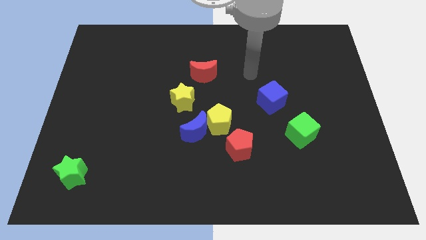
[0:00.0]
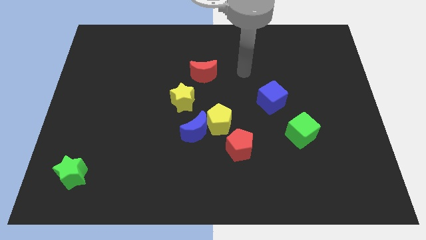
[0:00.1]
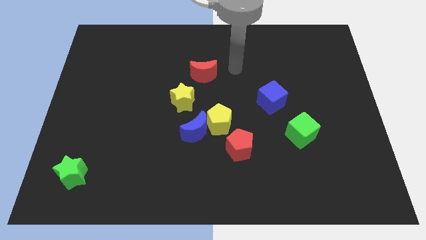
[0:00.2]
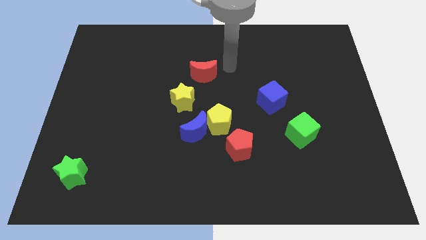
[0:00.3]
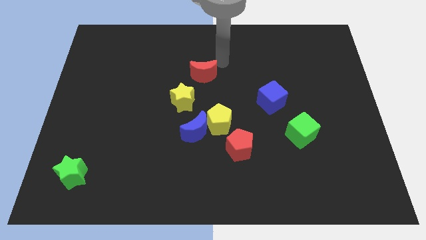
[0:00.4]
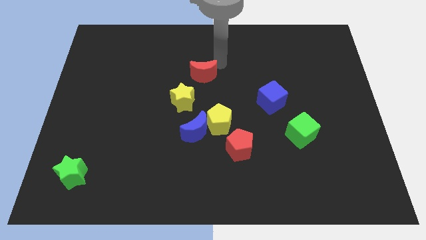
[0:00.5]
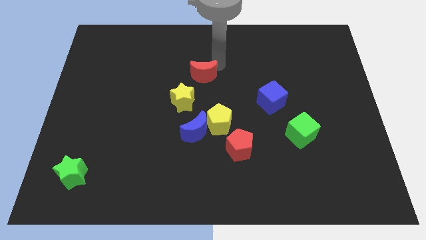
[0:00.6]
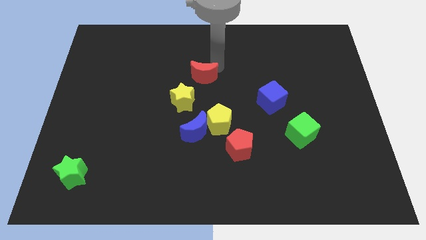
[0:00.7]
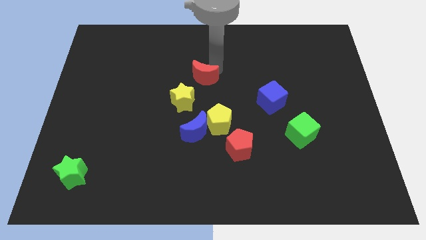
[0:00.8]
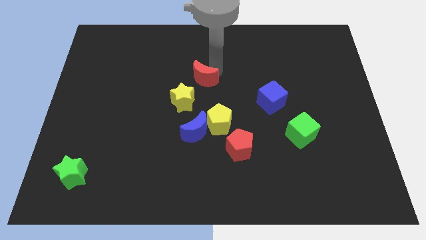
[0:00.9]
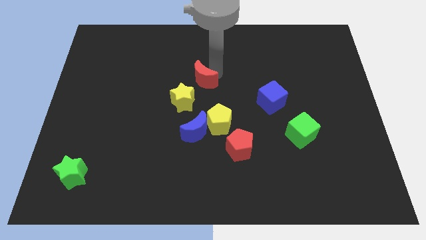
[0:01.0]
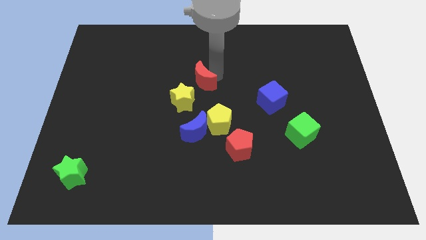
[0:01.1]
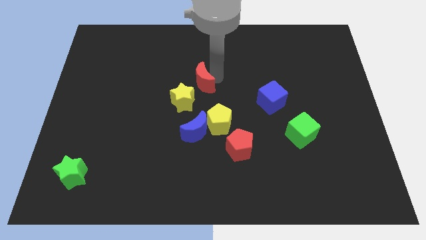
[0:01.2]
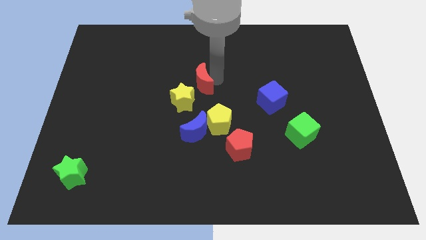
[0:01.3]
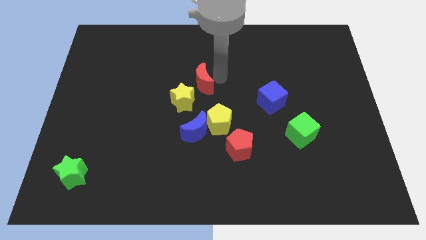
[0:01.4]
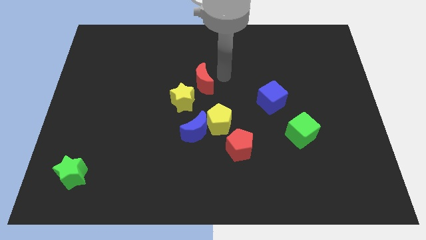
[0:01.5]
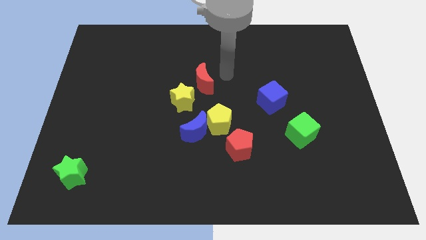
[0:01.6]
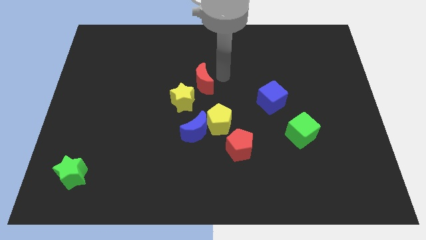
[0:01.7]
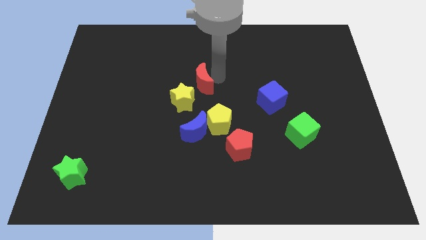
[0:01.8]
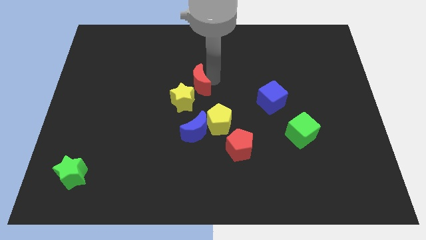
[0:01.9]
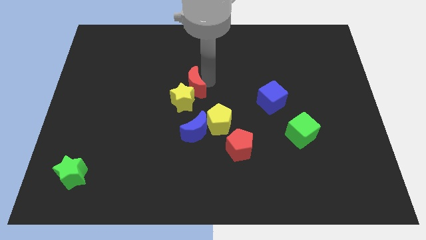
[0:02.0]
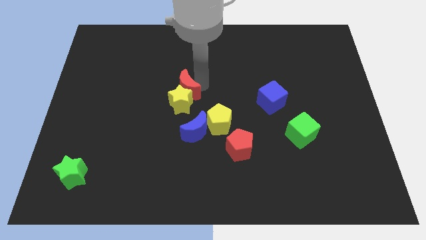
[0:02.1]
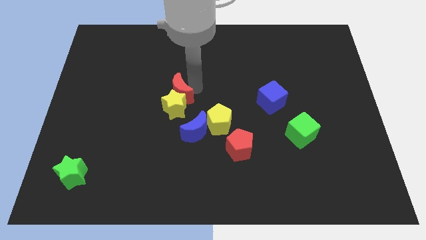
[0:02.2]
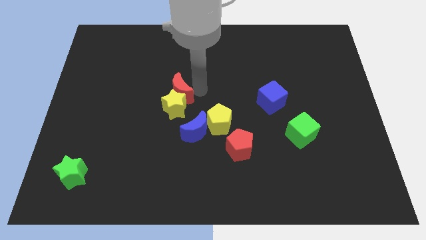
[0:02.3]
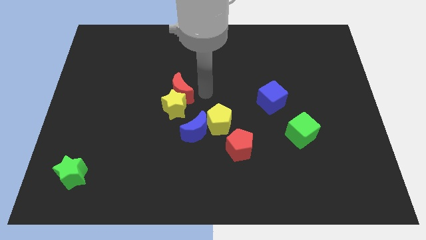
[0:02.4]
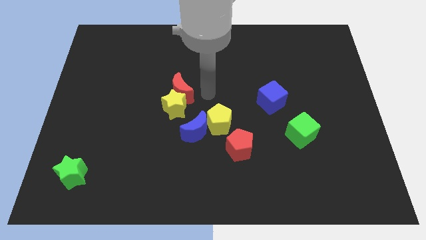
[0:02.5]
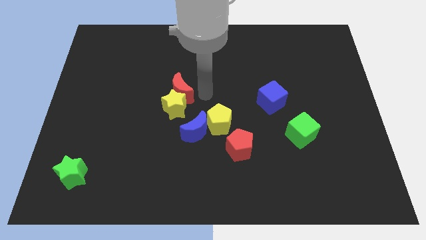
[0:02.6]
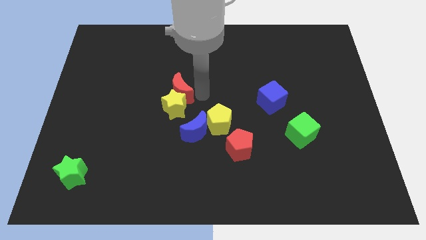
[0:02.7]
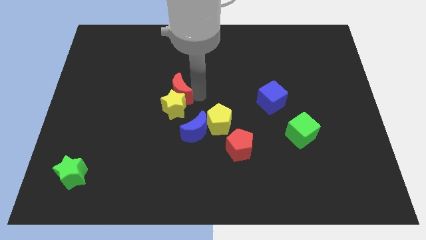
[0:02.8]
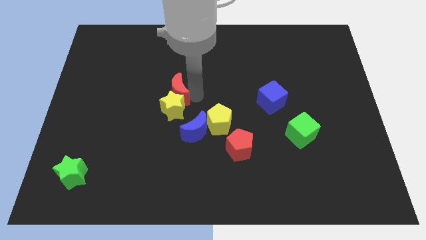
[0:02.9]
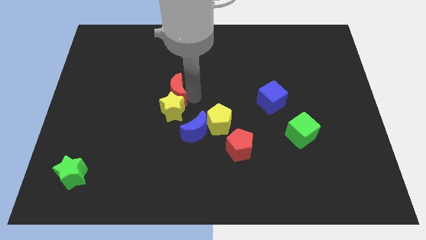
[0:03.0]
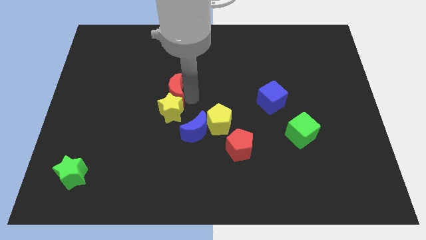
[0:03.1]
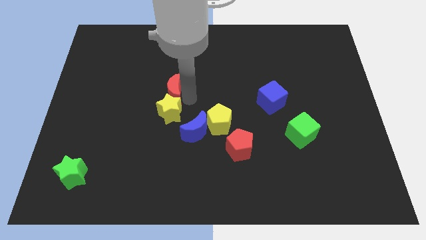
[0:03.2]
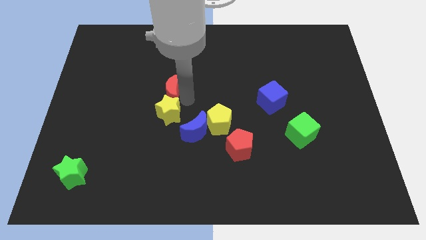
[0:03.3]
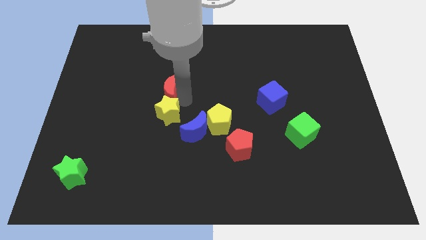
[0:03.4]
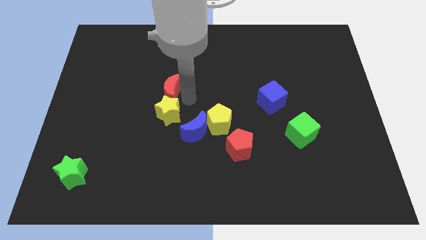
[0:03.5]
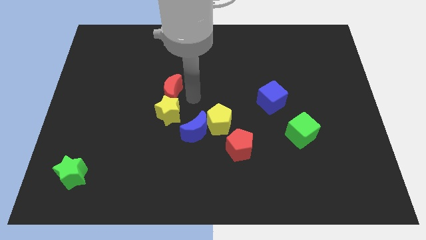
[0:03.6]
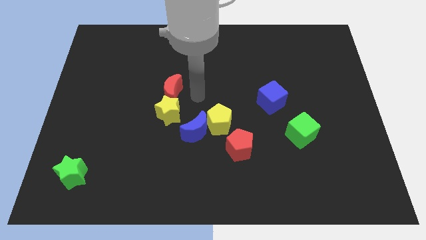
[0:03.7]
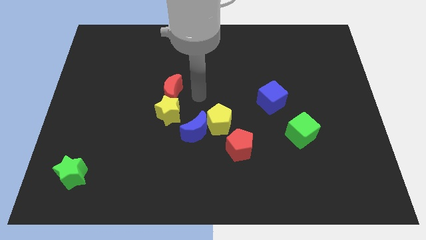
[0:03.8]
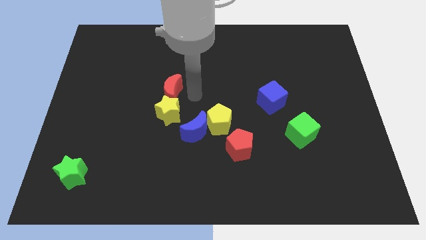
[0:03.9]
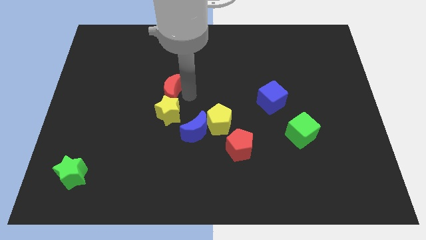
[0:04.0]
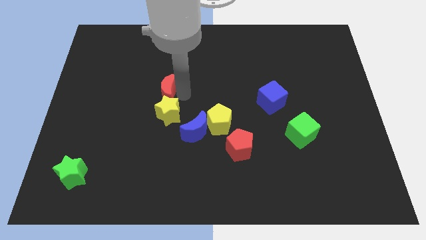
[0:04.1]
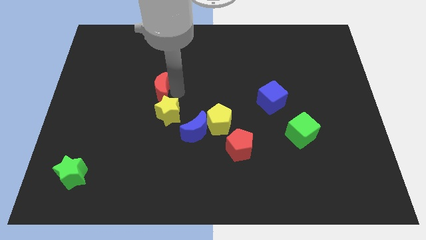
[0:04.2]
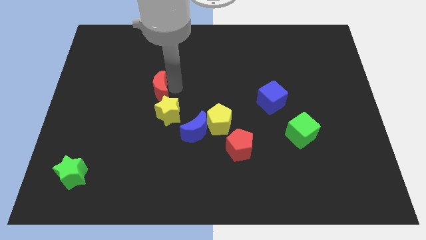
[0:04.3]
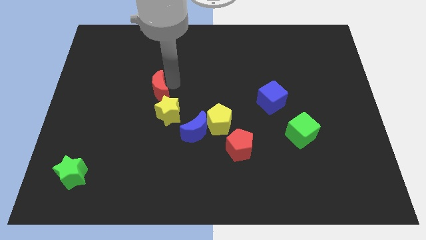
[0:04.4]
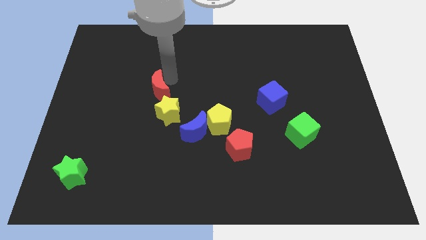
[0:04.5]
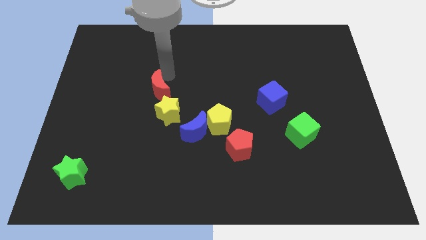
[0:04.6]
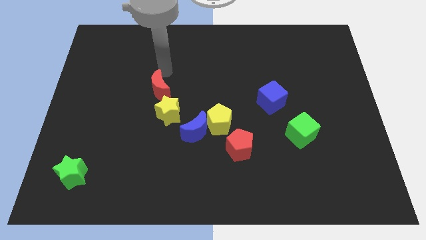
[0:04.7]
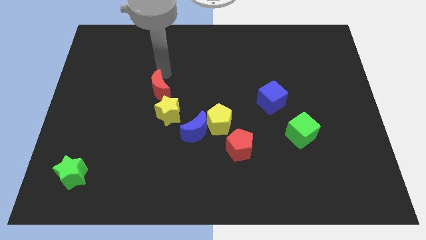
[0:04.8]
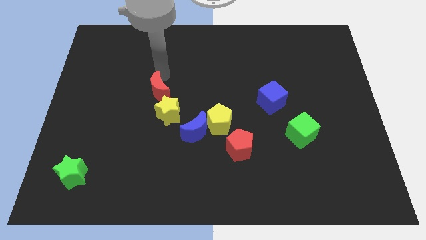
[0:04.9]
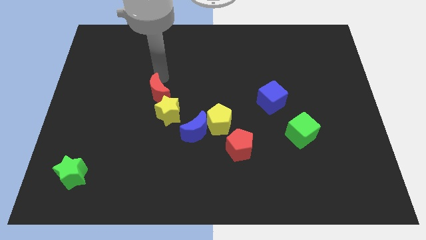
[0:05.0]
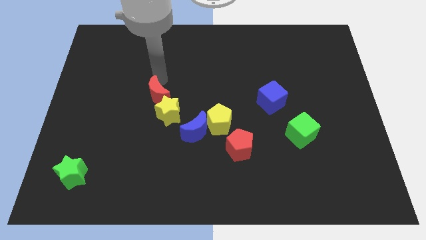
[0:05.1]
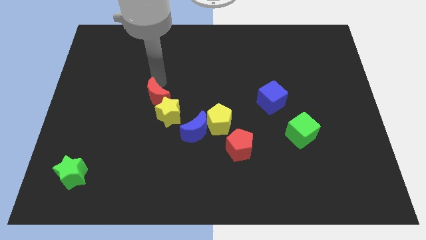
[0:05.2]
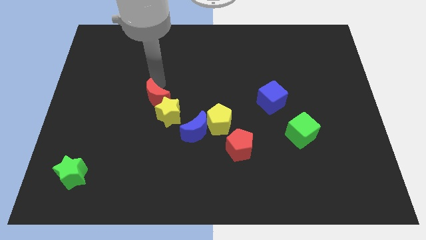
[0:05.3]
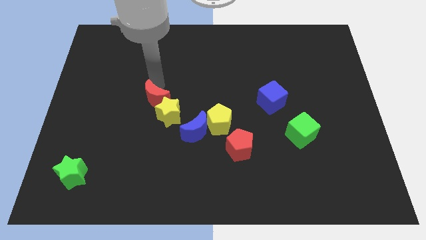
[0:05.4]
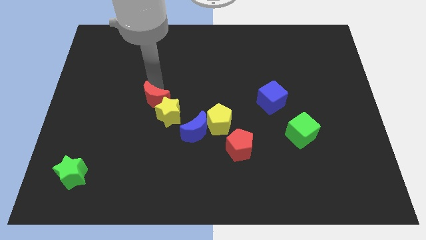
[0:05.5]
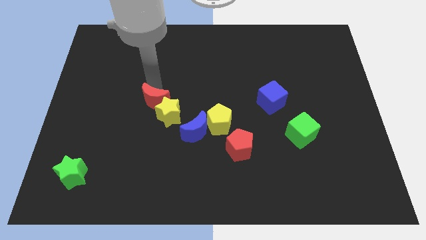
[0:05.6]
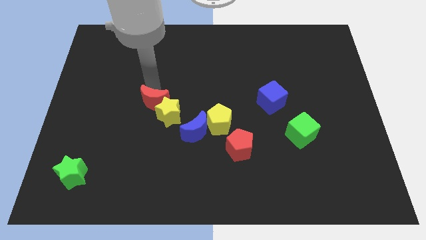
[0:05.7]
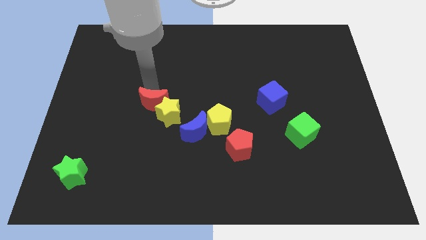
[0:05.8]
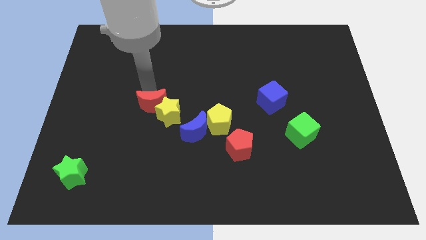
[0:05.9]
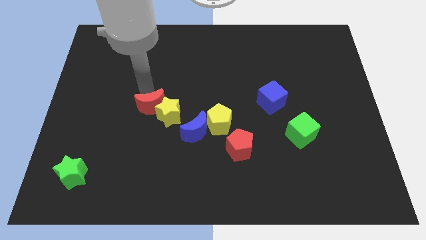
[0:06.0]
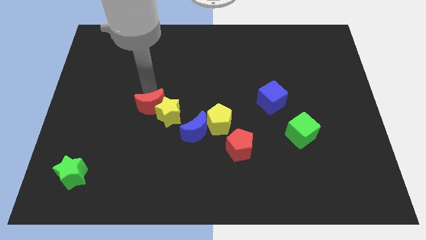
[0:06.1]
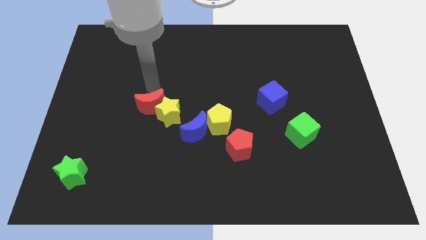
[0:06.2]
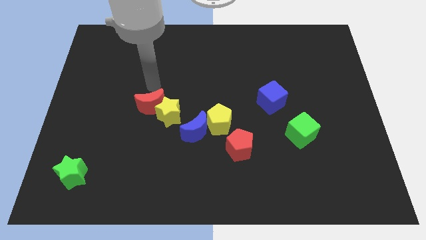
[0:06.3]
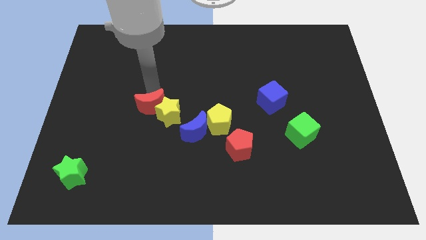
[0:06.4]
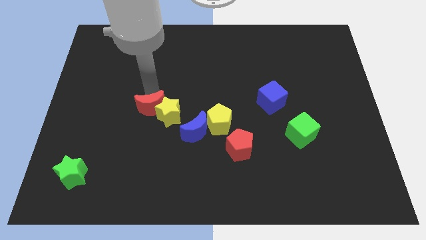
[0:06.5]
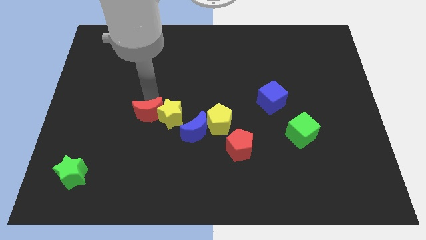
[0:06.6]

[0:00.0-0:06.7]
push the red moon to the left of the blue moon
